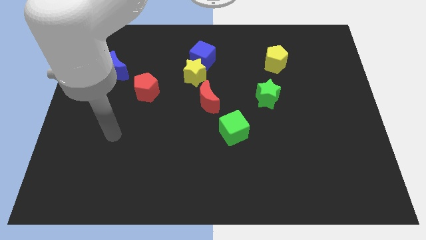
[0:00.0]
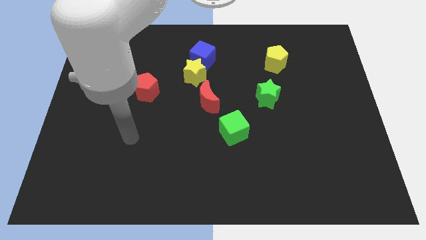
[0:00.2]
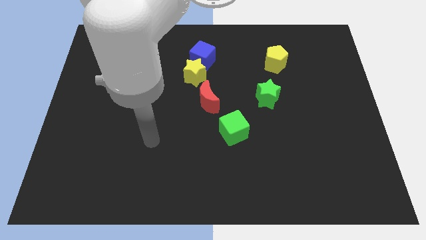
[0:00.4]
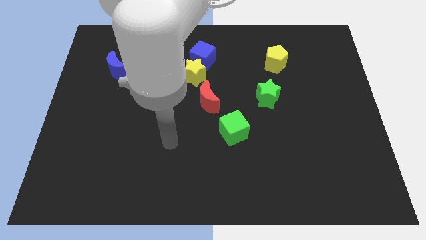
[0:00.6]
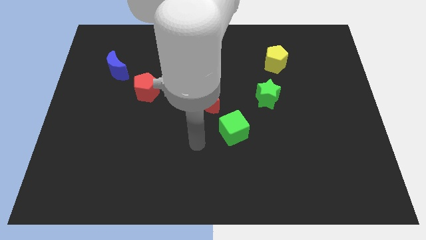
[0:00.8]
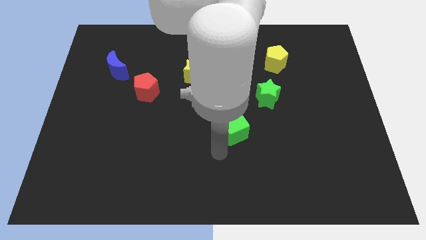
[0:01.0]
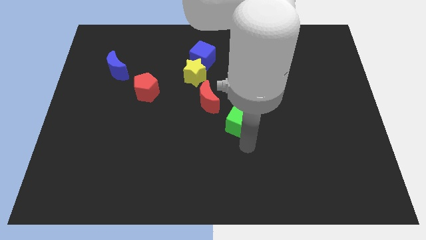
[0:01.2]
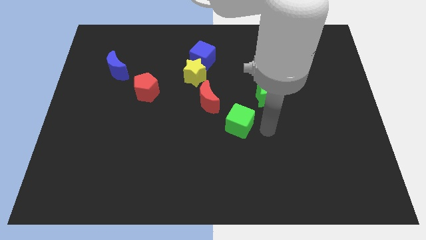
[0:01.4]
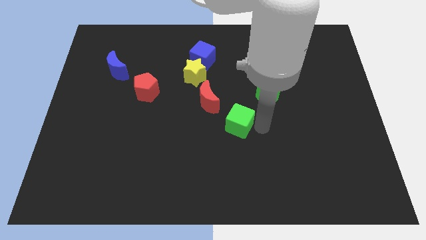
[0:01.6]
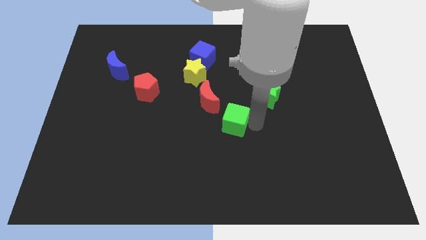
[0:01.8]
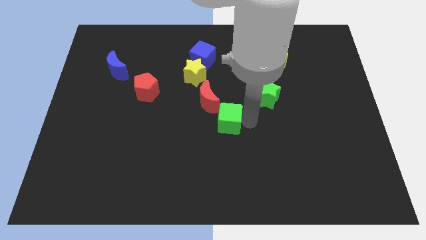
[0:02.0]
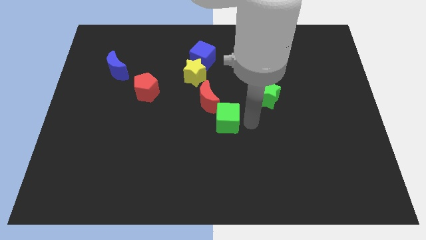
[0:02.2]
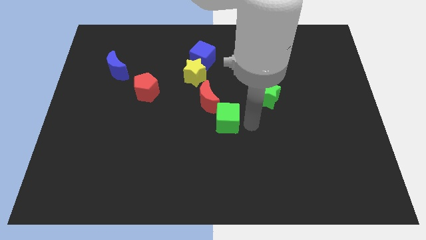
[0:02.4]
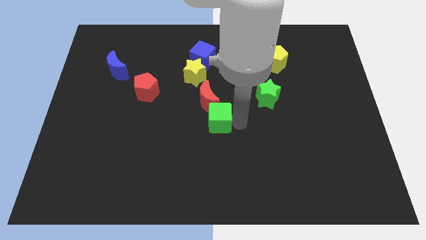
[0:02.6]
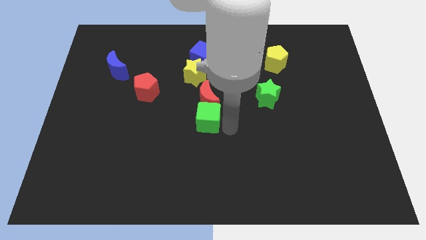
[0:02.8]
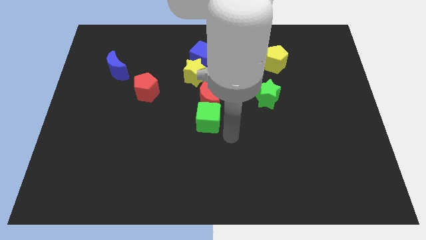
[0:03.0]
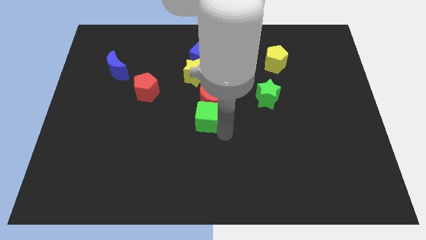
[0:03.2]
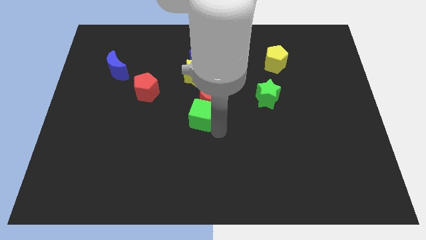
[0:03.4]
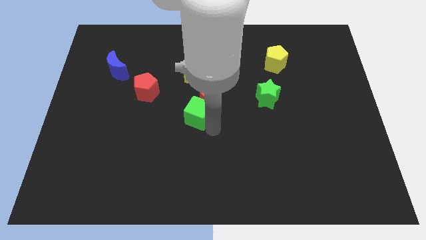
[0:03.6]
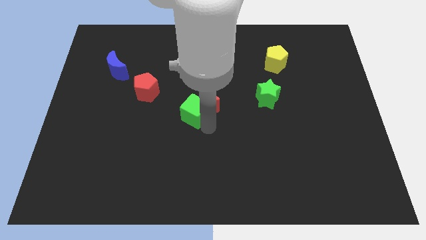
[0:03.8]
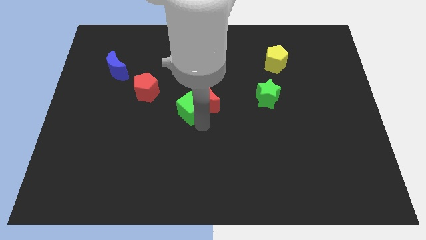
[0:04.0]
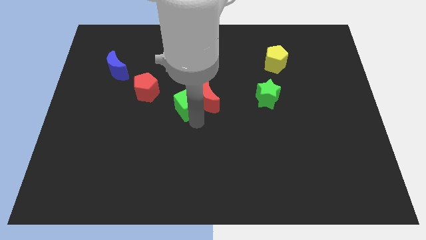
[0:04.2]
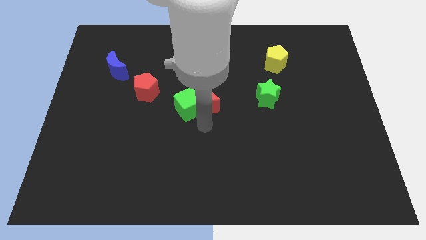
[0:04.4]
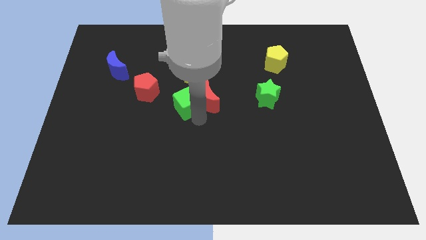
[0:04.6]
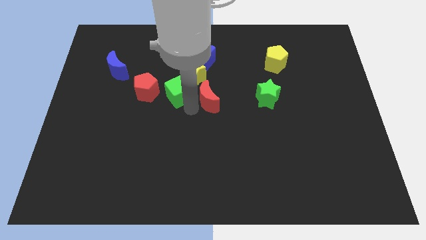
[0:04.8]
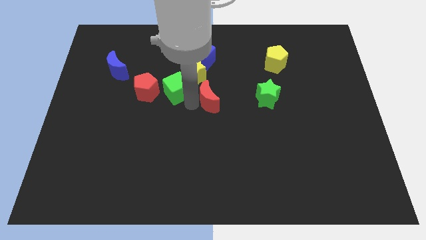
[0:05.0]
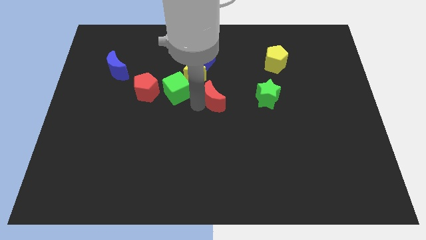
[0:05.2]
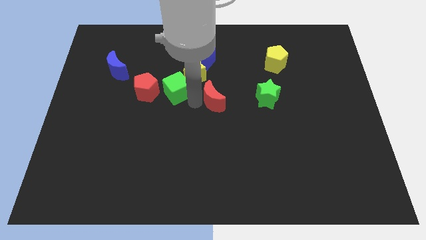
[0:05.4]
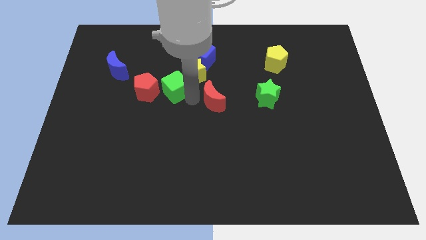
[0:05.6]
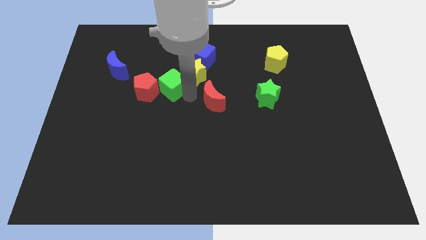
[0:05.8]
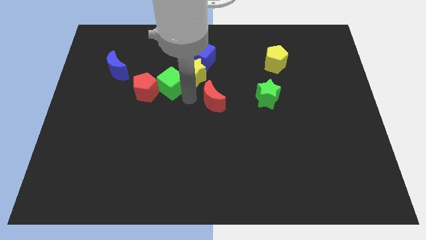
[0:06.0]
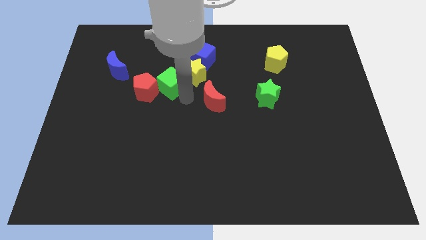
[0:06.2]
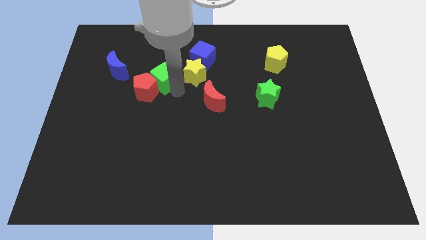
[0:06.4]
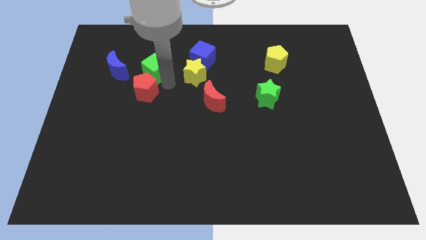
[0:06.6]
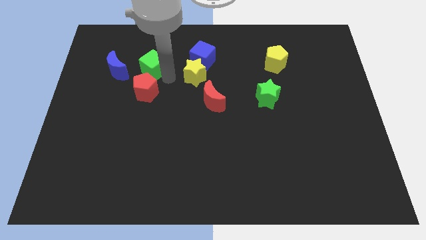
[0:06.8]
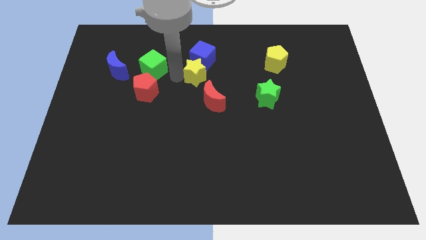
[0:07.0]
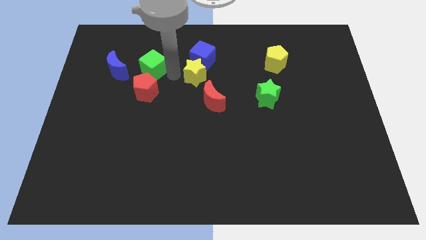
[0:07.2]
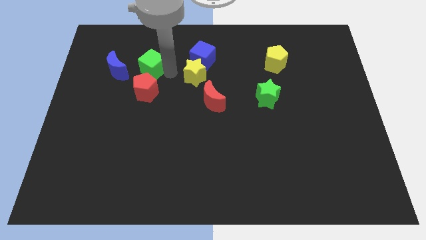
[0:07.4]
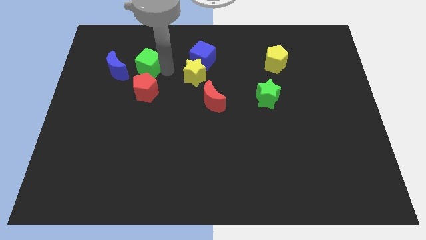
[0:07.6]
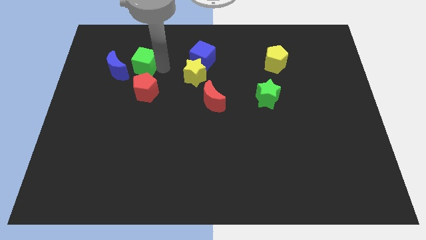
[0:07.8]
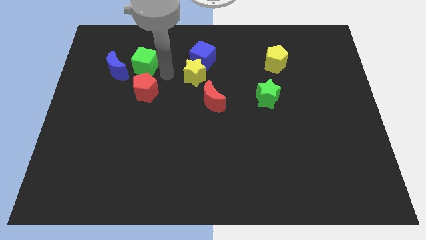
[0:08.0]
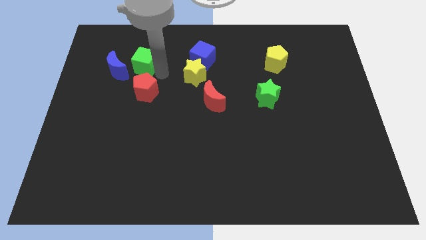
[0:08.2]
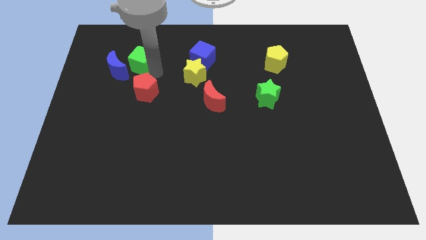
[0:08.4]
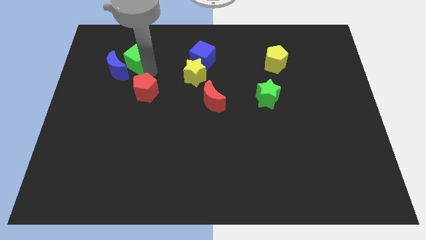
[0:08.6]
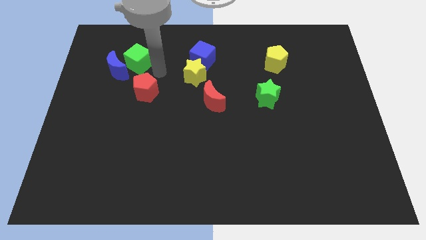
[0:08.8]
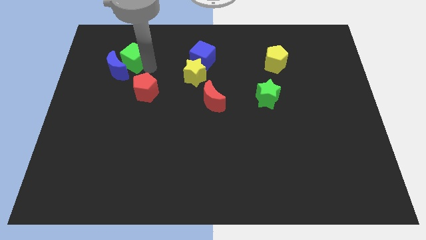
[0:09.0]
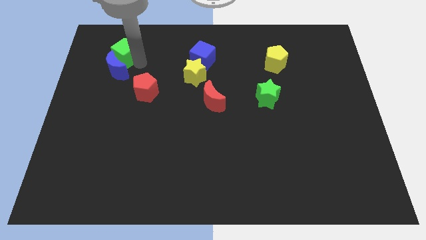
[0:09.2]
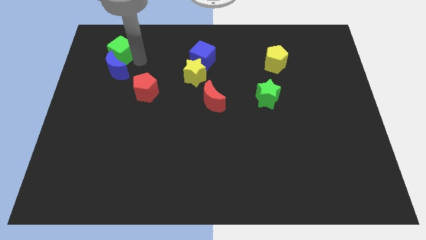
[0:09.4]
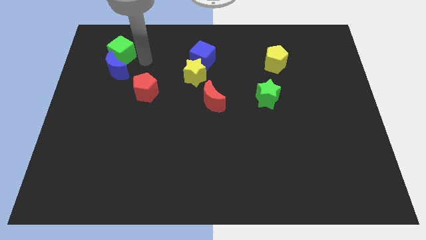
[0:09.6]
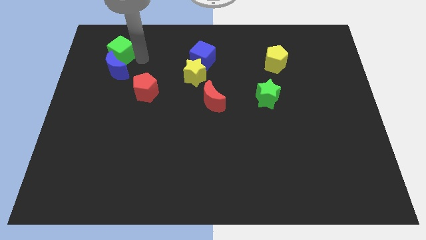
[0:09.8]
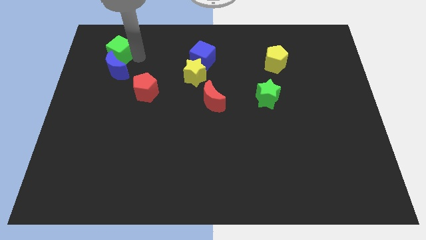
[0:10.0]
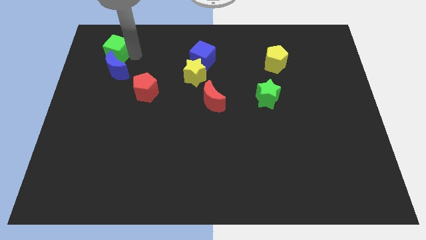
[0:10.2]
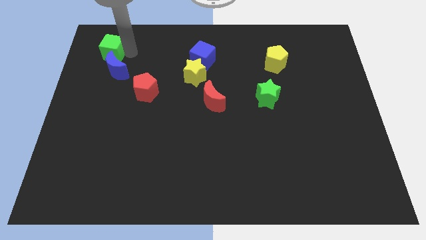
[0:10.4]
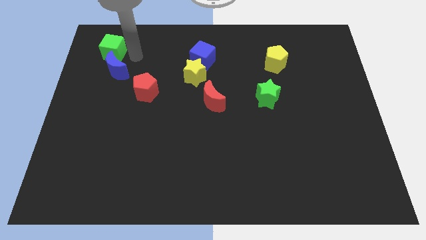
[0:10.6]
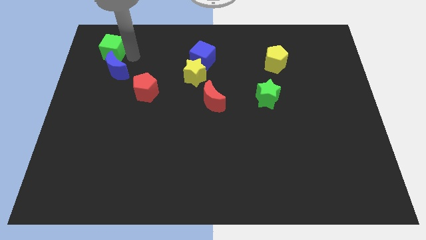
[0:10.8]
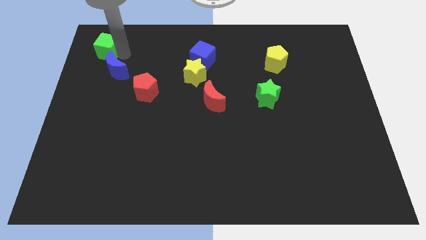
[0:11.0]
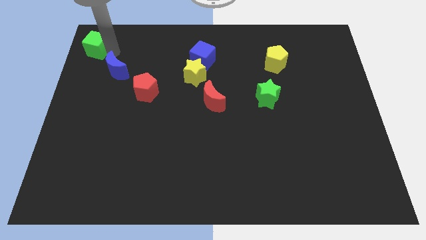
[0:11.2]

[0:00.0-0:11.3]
slide the green cube to the upper left corner

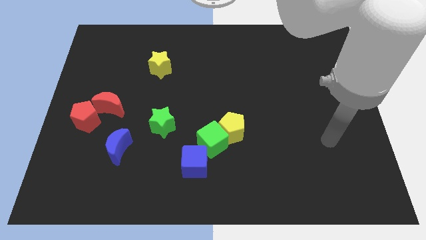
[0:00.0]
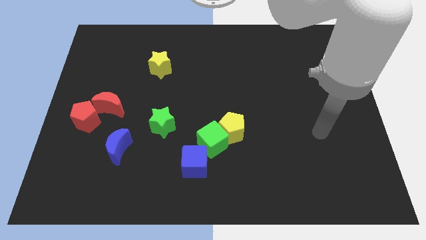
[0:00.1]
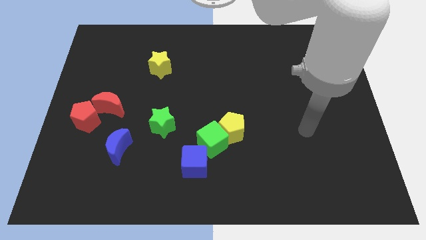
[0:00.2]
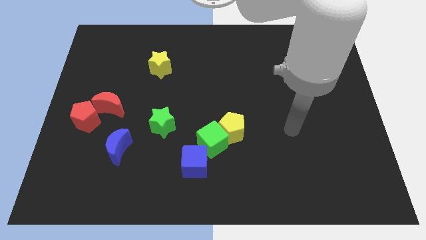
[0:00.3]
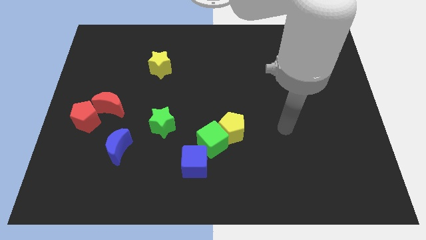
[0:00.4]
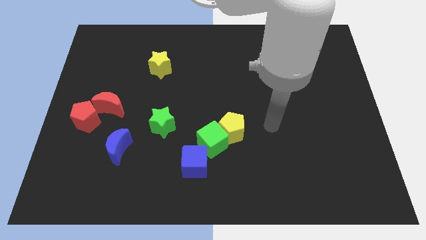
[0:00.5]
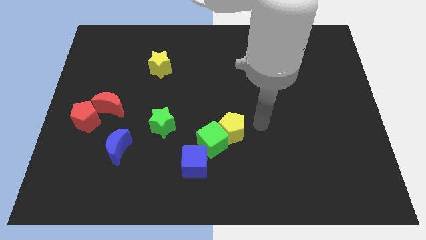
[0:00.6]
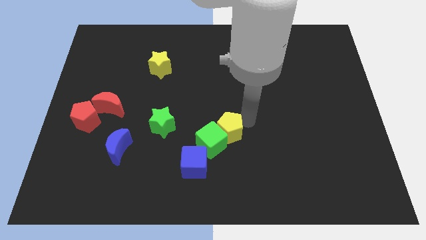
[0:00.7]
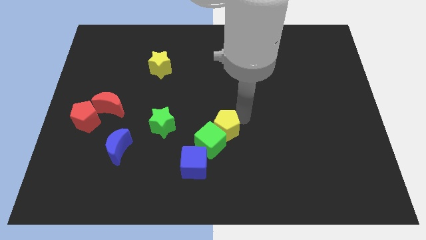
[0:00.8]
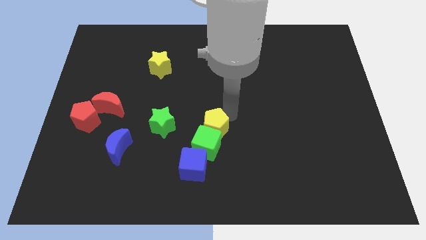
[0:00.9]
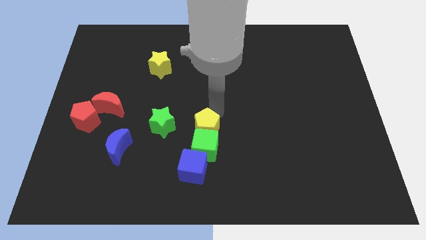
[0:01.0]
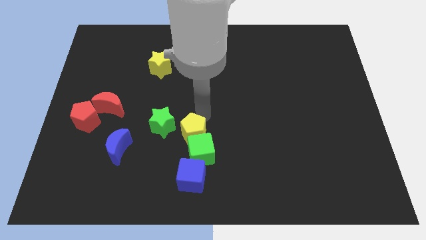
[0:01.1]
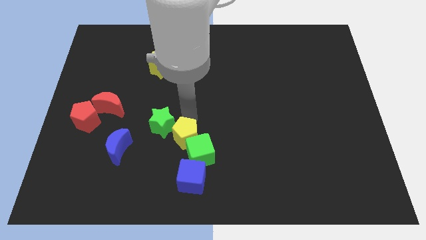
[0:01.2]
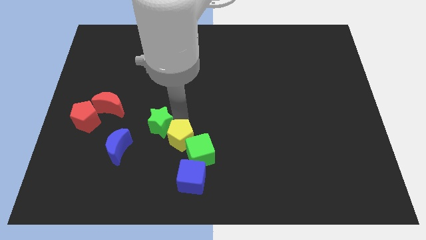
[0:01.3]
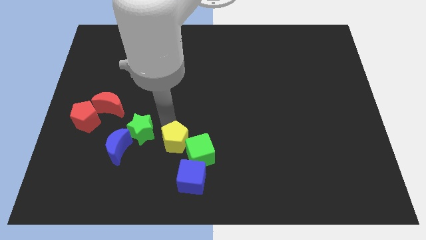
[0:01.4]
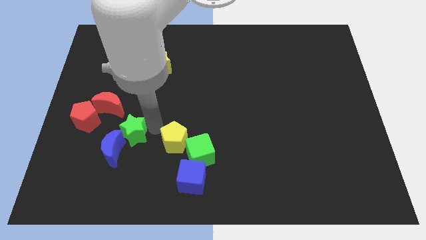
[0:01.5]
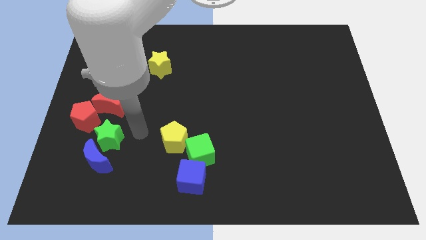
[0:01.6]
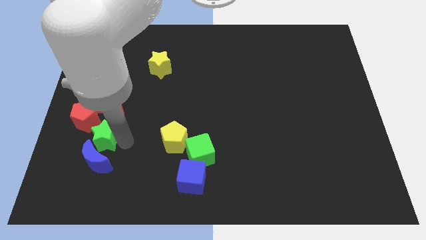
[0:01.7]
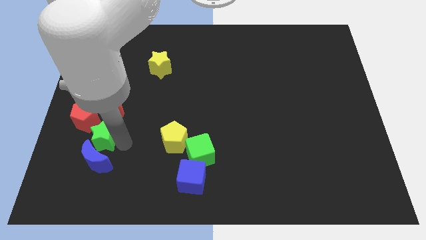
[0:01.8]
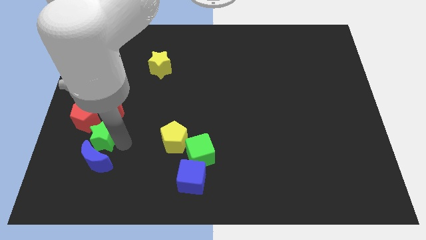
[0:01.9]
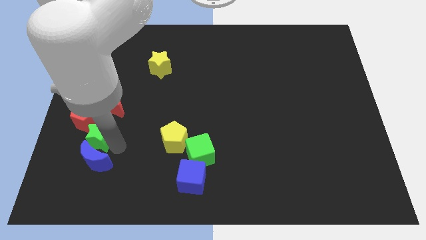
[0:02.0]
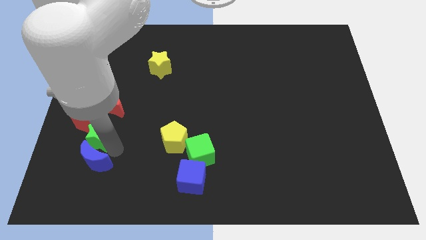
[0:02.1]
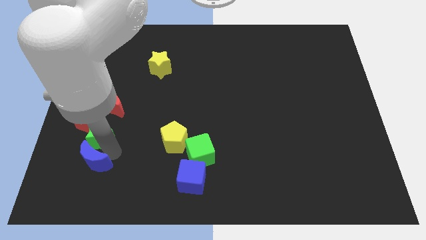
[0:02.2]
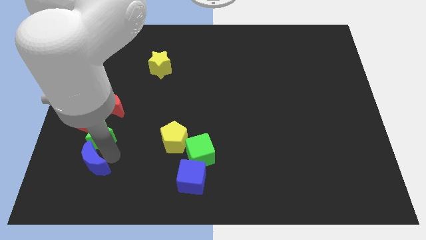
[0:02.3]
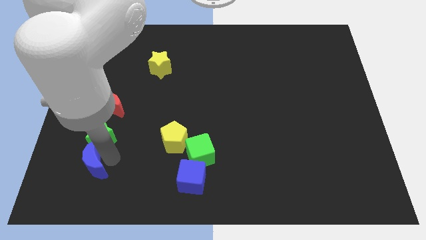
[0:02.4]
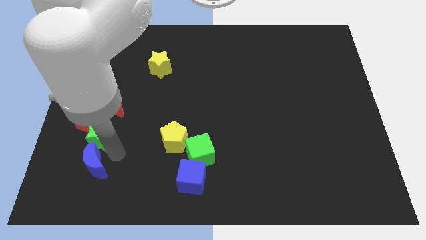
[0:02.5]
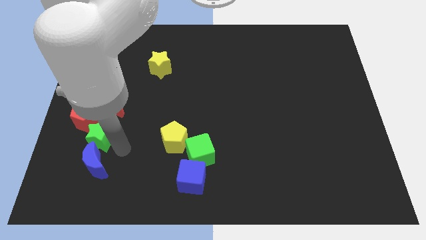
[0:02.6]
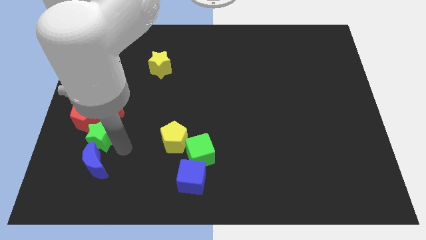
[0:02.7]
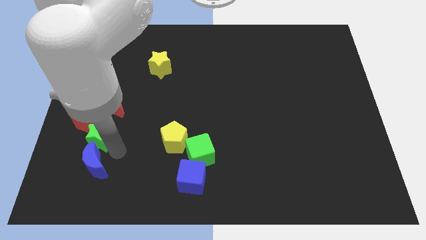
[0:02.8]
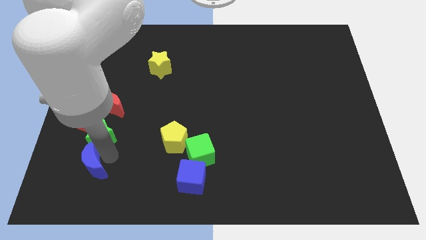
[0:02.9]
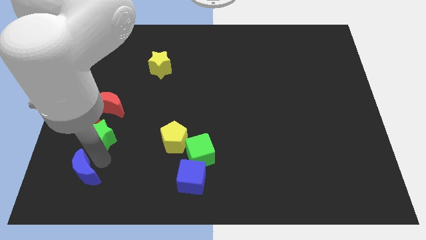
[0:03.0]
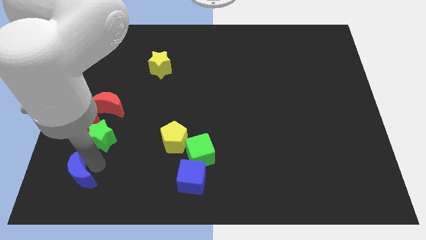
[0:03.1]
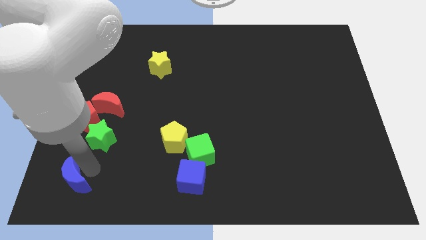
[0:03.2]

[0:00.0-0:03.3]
push the blue moon to the bottom left
